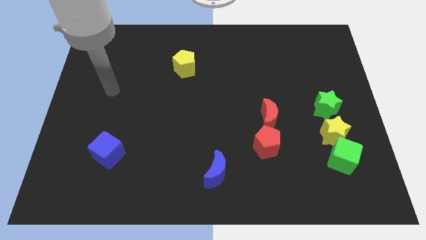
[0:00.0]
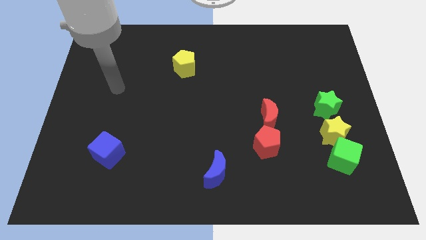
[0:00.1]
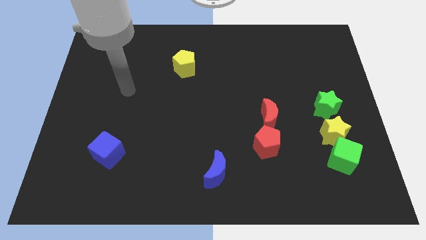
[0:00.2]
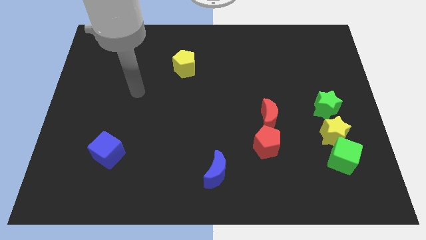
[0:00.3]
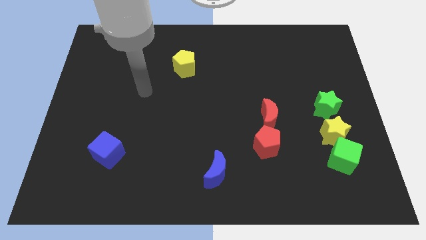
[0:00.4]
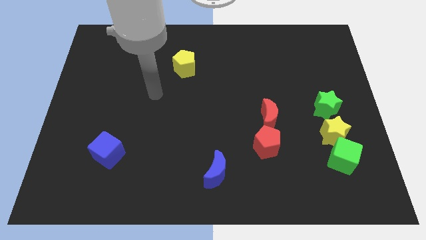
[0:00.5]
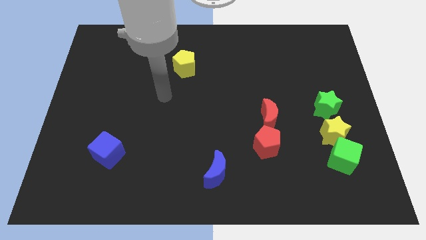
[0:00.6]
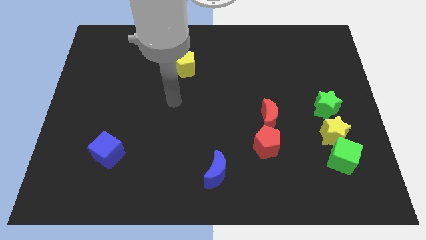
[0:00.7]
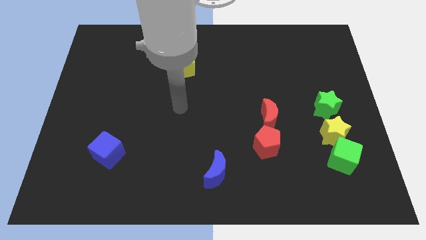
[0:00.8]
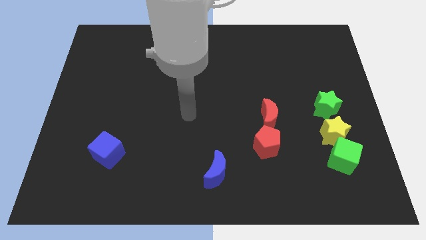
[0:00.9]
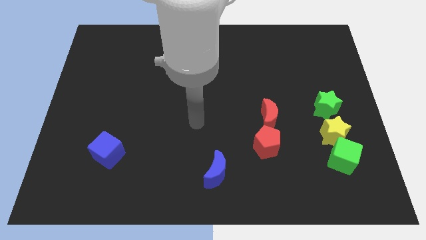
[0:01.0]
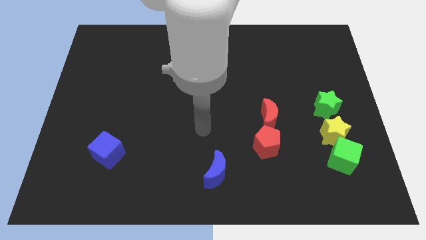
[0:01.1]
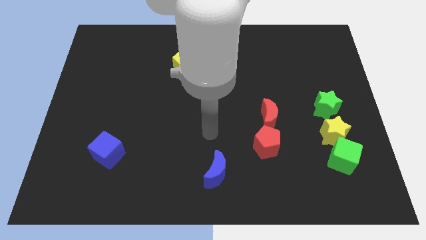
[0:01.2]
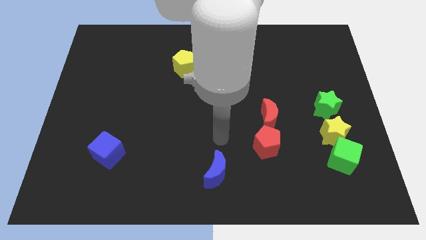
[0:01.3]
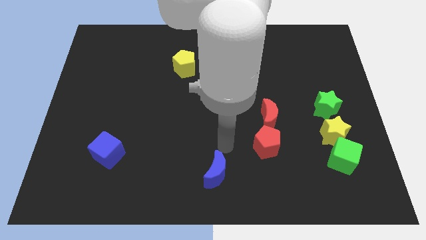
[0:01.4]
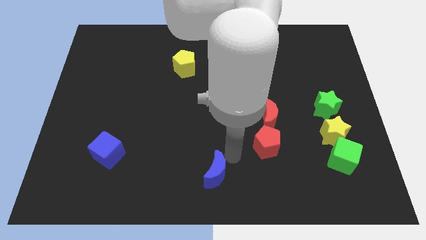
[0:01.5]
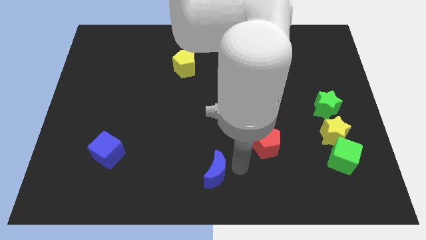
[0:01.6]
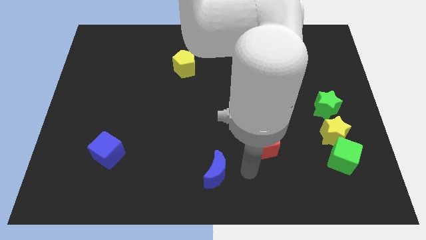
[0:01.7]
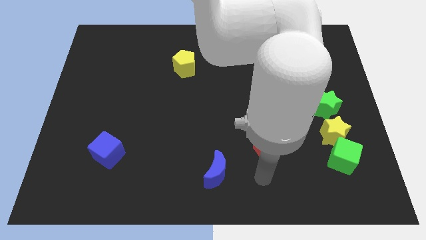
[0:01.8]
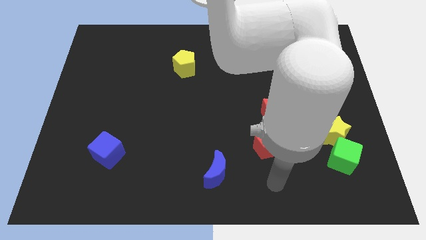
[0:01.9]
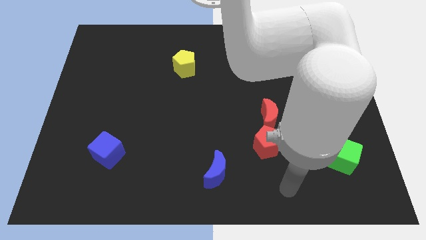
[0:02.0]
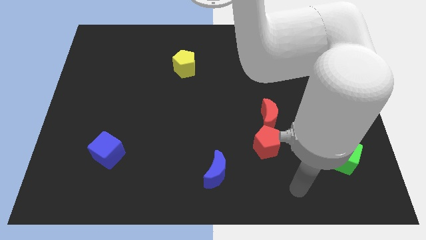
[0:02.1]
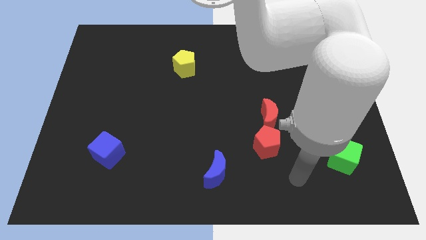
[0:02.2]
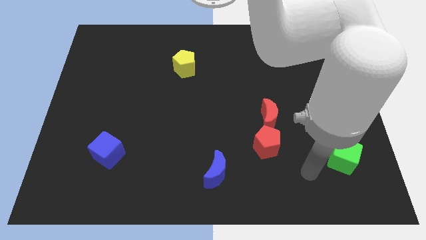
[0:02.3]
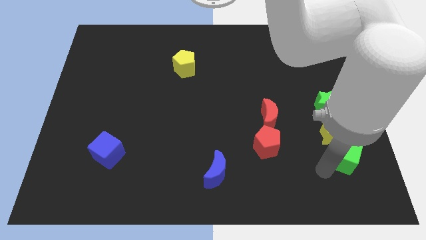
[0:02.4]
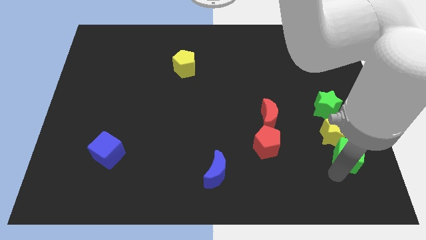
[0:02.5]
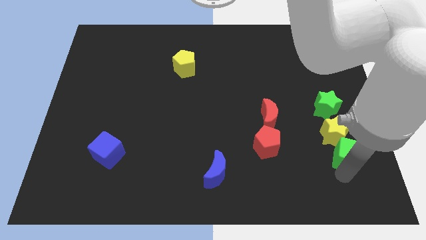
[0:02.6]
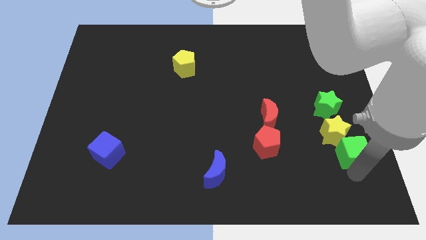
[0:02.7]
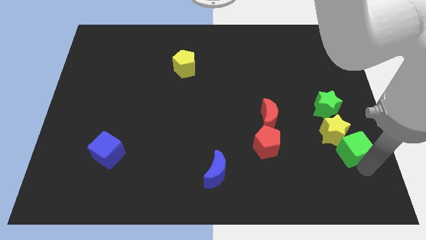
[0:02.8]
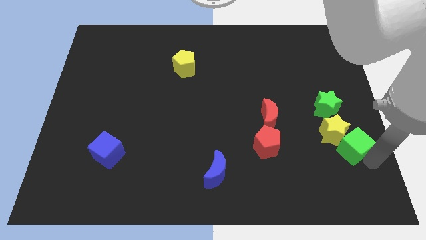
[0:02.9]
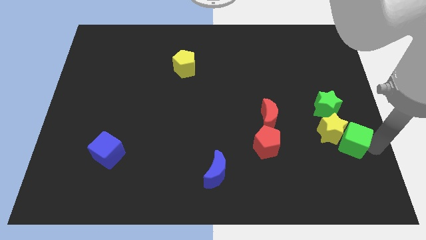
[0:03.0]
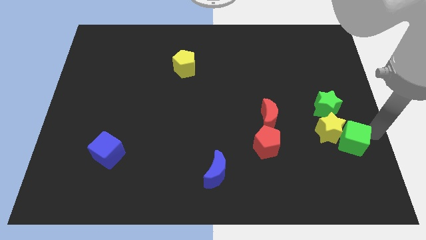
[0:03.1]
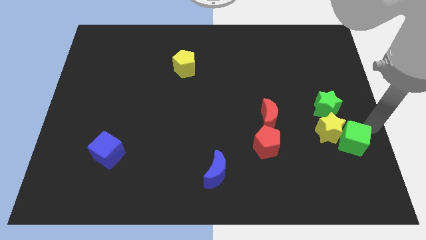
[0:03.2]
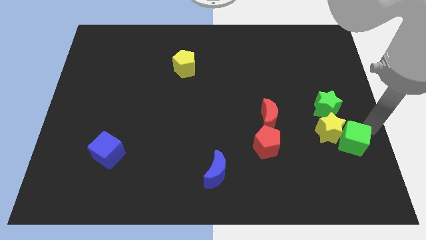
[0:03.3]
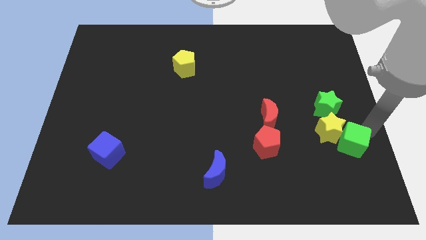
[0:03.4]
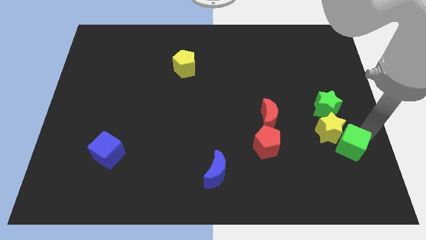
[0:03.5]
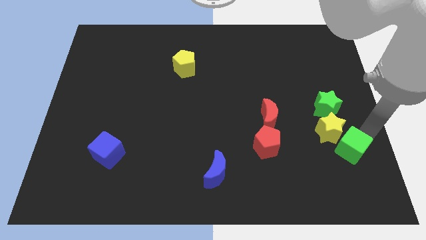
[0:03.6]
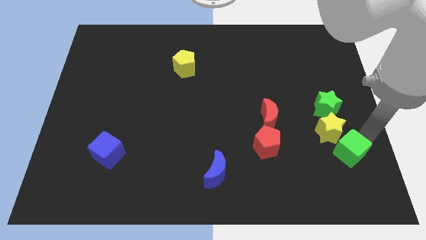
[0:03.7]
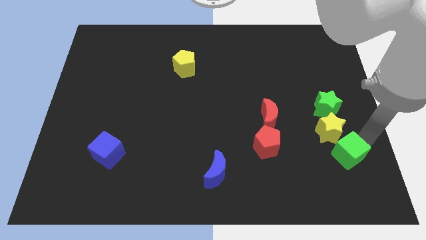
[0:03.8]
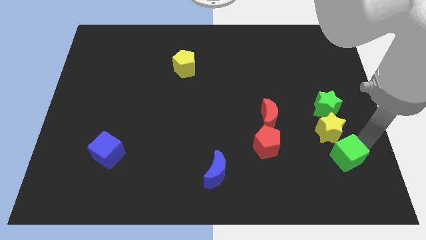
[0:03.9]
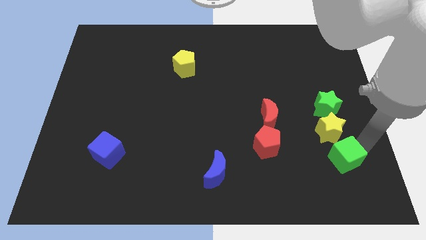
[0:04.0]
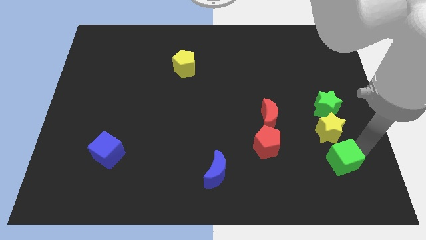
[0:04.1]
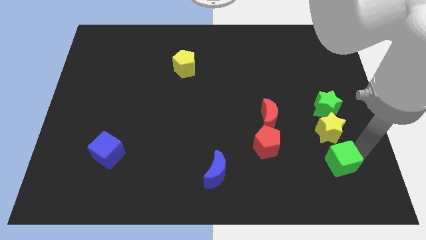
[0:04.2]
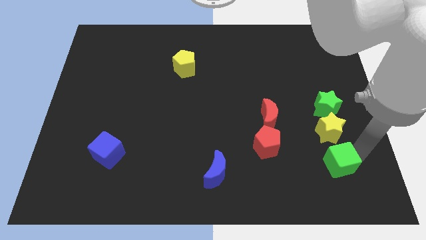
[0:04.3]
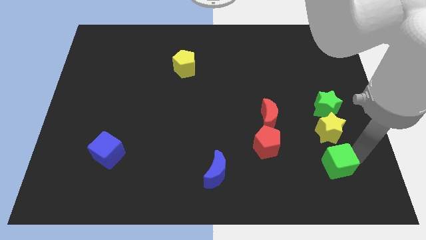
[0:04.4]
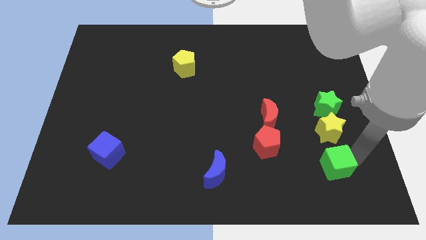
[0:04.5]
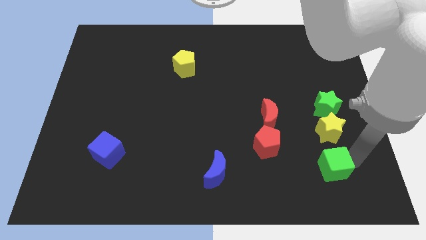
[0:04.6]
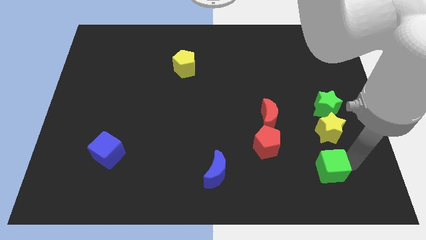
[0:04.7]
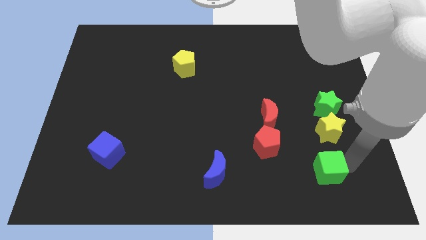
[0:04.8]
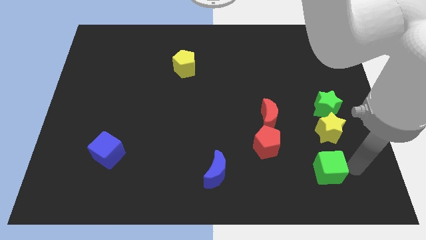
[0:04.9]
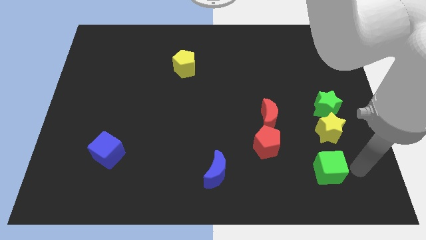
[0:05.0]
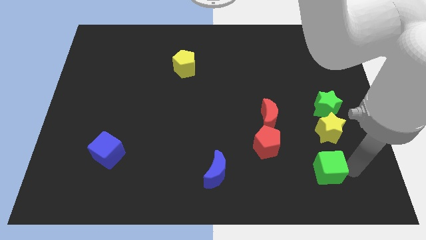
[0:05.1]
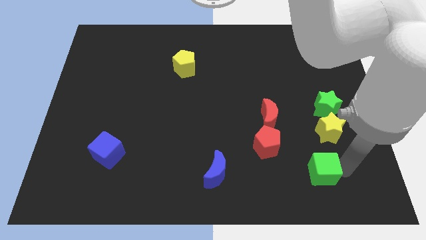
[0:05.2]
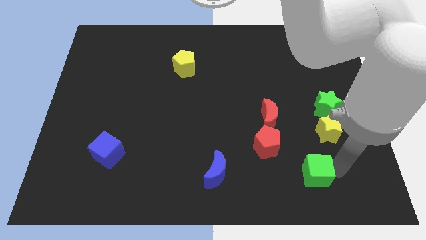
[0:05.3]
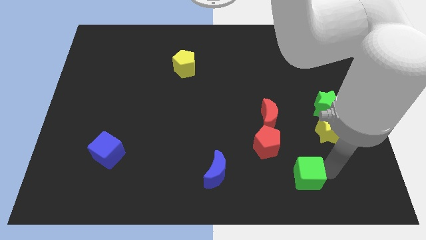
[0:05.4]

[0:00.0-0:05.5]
slightly push the green cube left

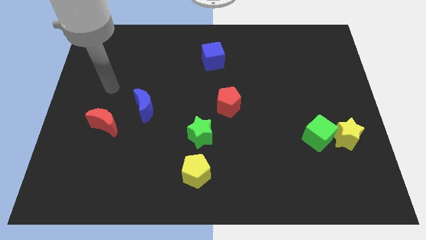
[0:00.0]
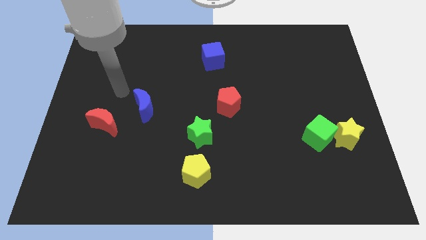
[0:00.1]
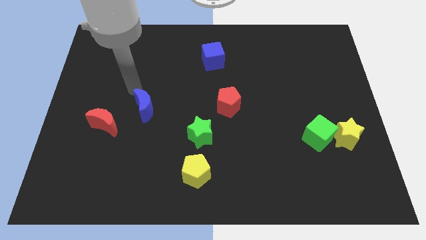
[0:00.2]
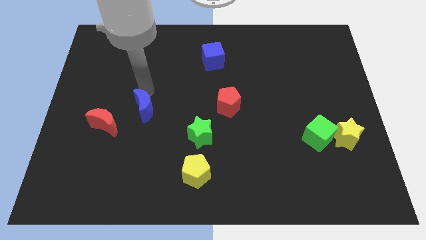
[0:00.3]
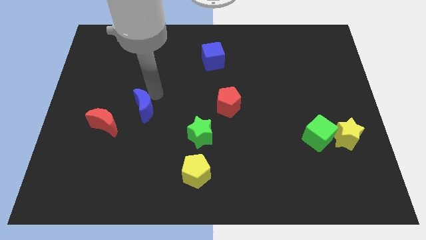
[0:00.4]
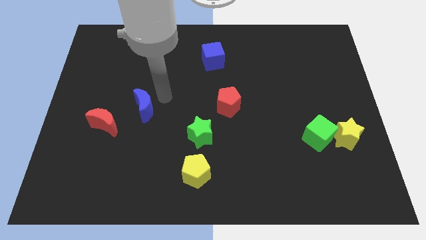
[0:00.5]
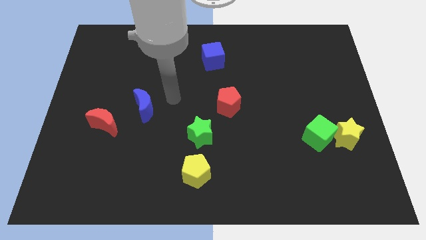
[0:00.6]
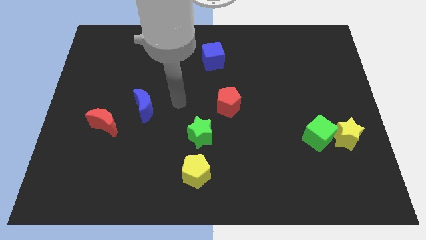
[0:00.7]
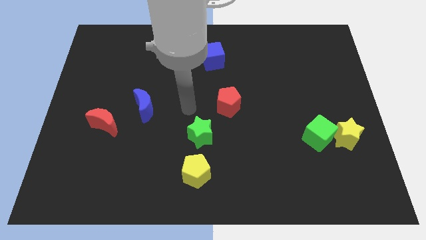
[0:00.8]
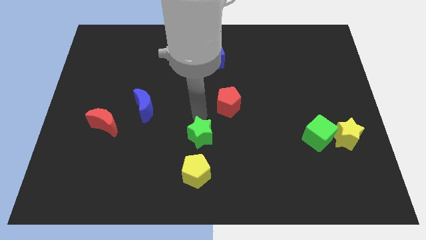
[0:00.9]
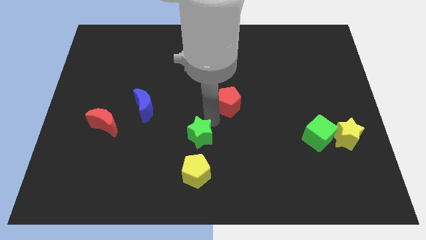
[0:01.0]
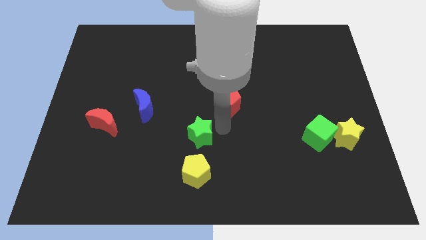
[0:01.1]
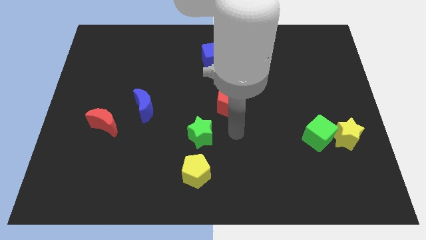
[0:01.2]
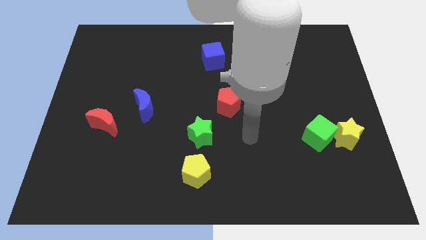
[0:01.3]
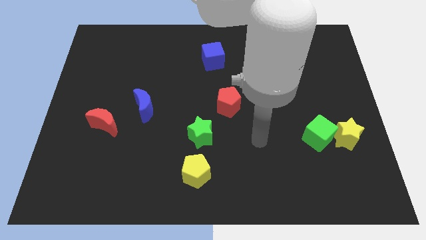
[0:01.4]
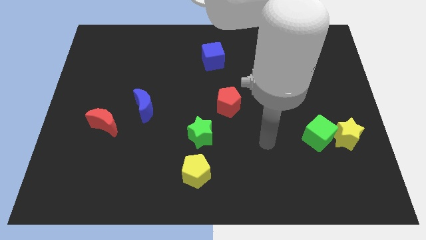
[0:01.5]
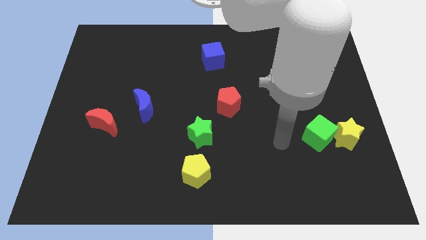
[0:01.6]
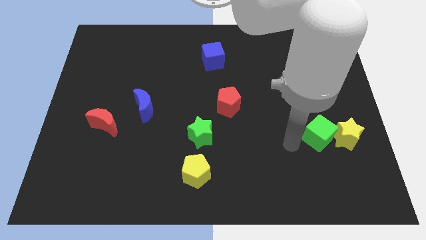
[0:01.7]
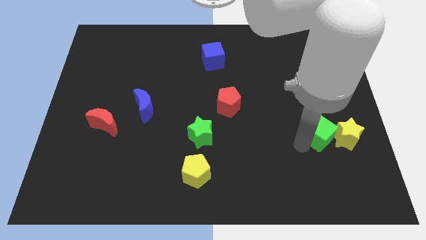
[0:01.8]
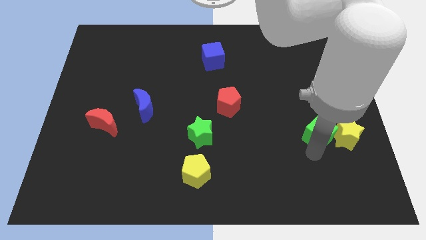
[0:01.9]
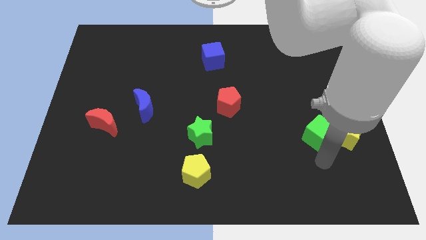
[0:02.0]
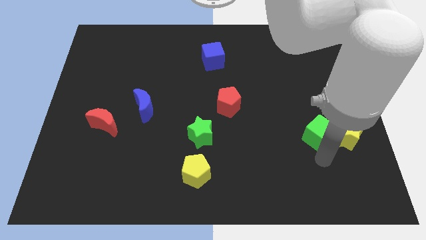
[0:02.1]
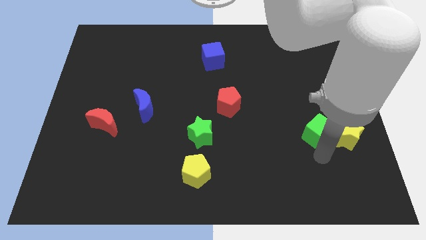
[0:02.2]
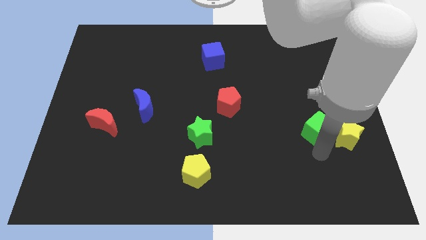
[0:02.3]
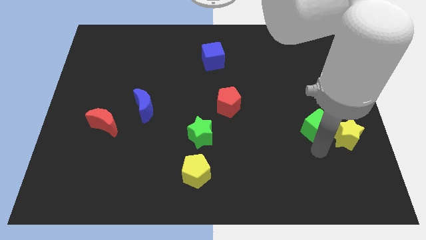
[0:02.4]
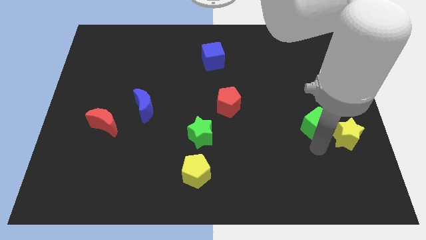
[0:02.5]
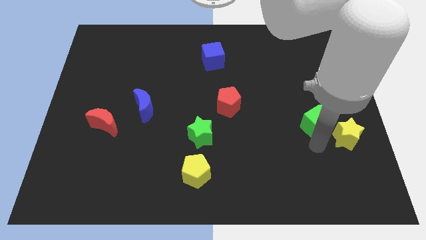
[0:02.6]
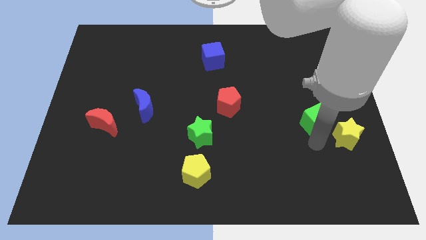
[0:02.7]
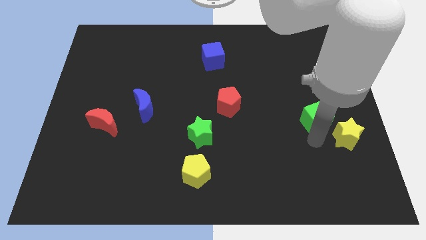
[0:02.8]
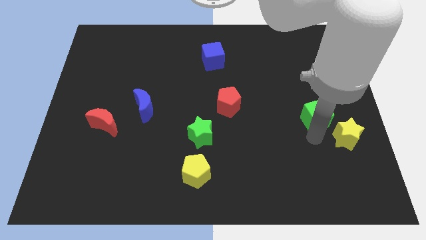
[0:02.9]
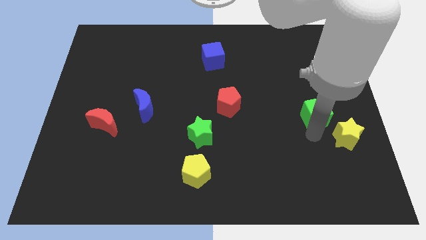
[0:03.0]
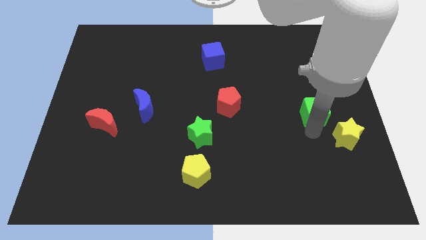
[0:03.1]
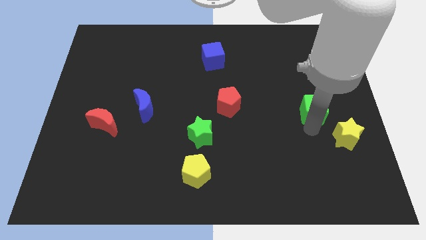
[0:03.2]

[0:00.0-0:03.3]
push the green cube somewhat up
